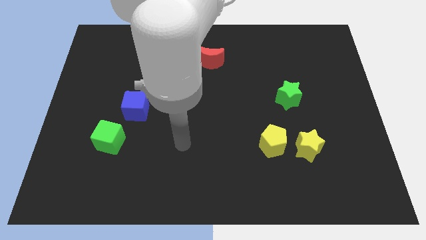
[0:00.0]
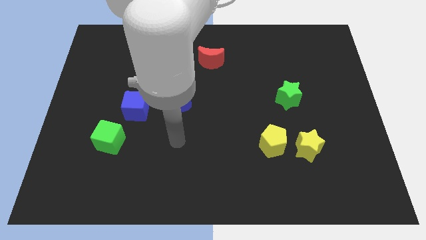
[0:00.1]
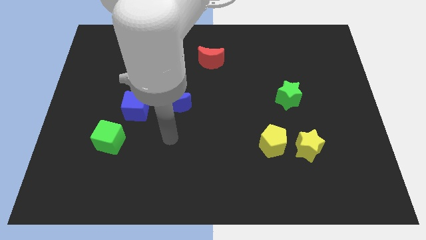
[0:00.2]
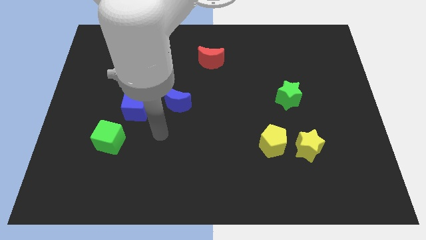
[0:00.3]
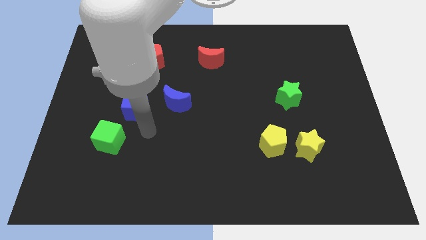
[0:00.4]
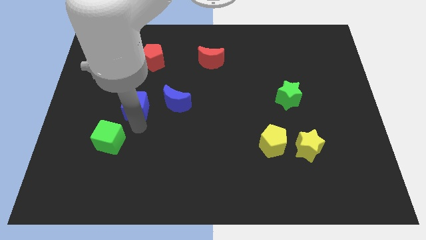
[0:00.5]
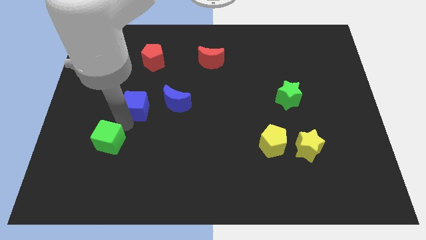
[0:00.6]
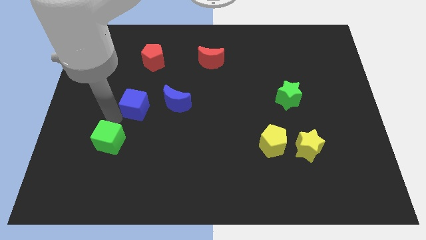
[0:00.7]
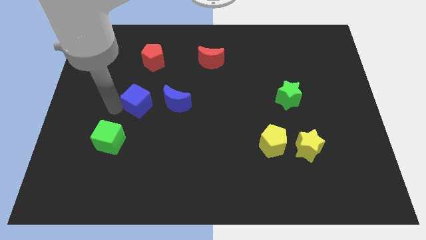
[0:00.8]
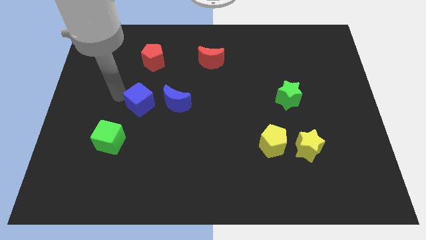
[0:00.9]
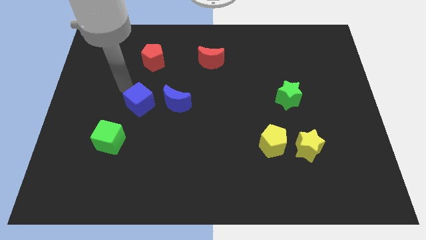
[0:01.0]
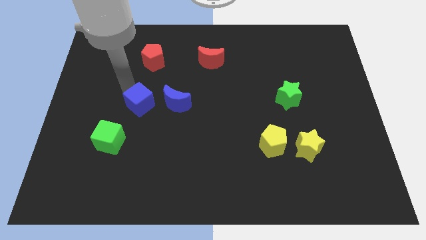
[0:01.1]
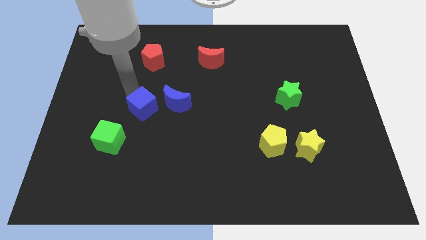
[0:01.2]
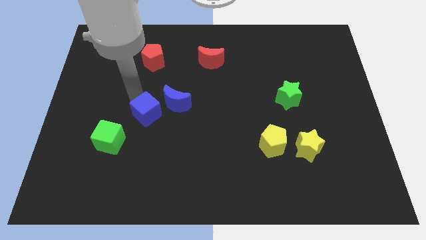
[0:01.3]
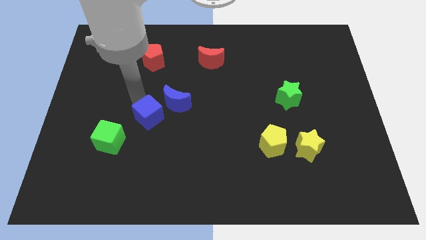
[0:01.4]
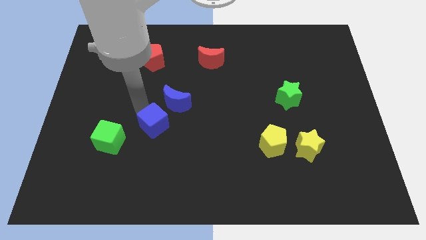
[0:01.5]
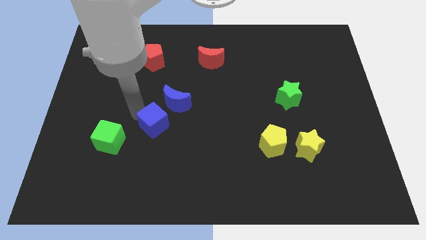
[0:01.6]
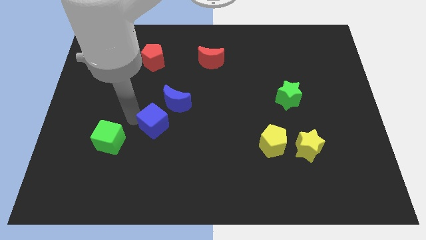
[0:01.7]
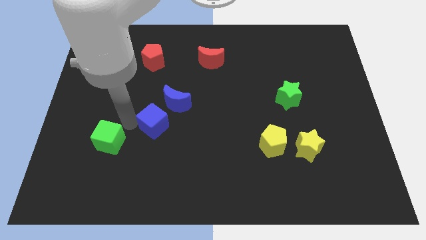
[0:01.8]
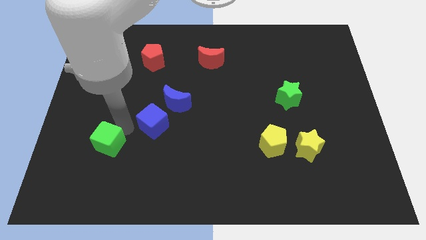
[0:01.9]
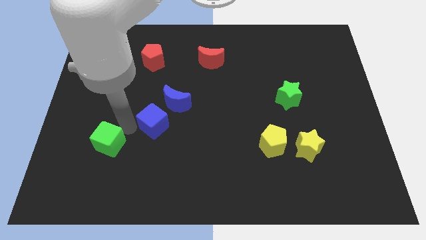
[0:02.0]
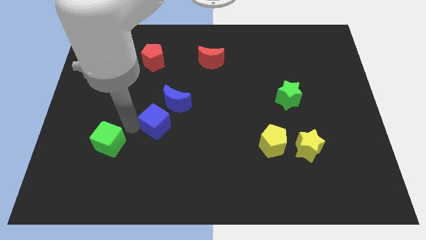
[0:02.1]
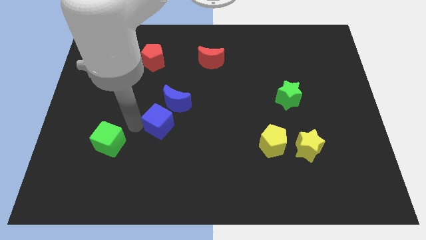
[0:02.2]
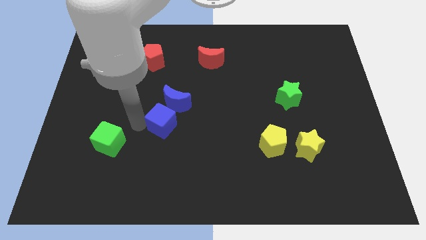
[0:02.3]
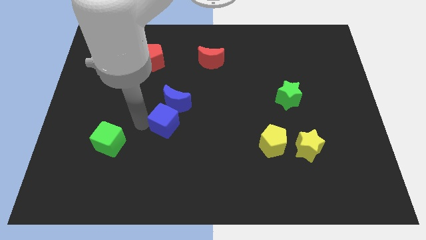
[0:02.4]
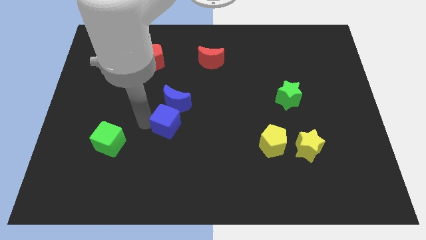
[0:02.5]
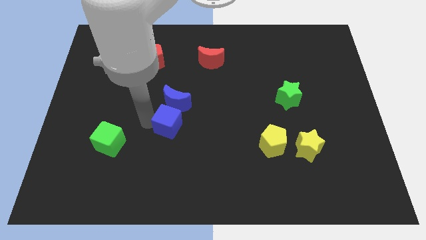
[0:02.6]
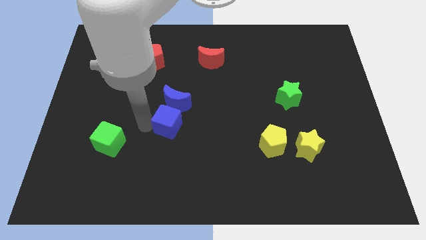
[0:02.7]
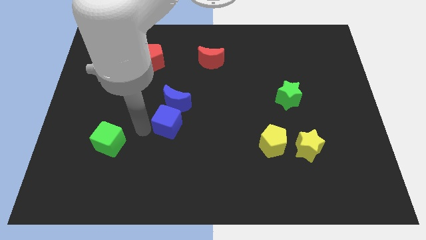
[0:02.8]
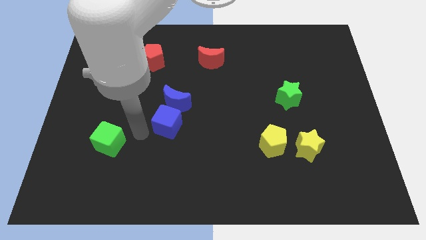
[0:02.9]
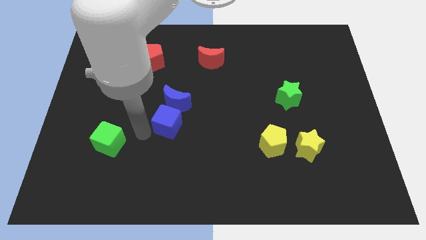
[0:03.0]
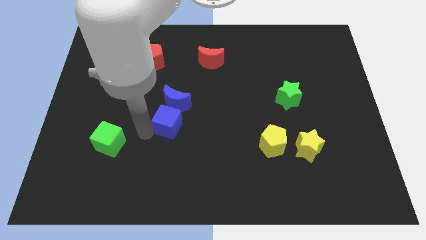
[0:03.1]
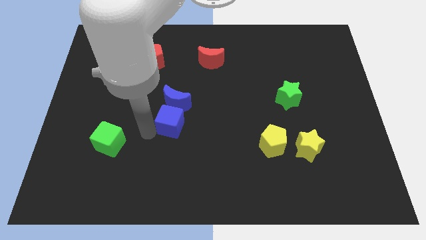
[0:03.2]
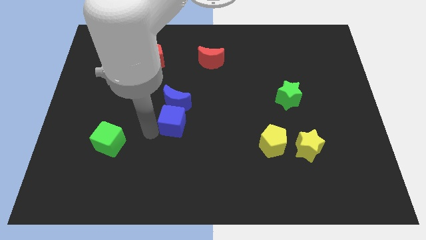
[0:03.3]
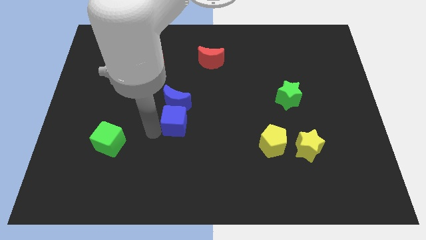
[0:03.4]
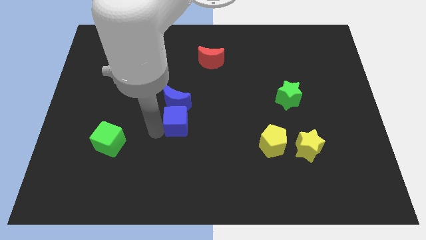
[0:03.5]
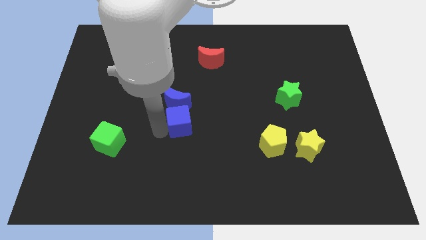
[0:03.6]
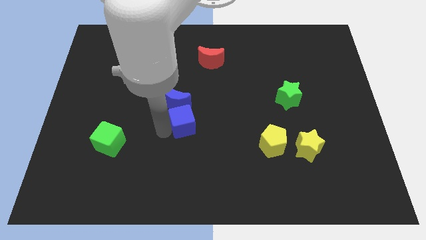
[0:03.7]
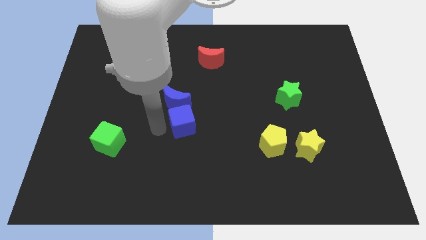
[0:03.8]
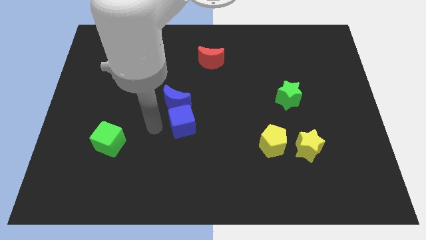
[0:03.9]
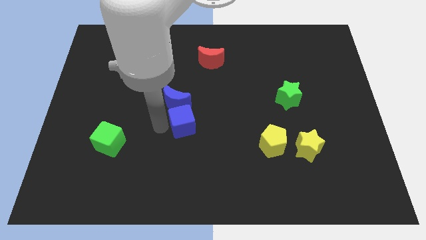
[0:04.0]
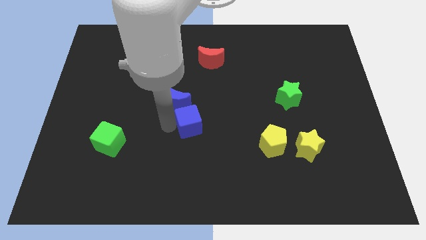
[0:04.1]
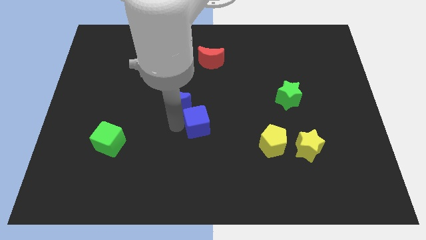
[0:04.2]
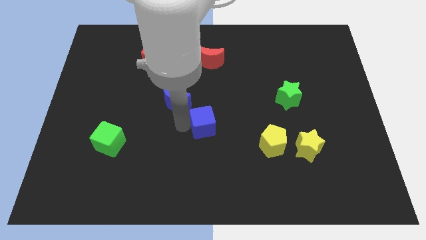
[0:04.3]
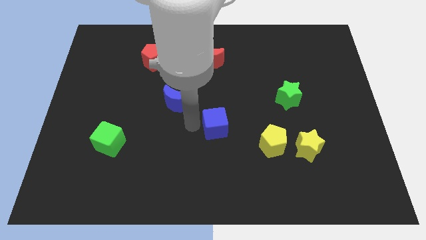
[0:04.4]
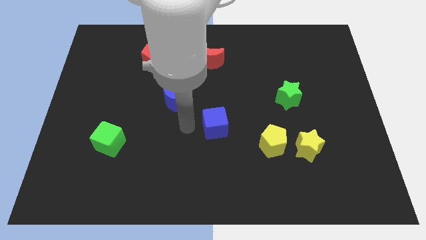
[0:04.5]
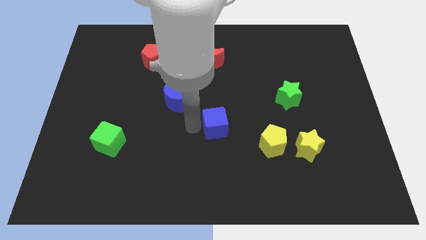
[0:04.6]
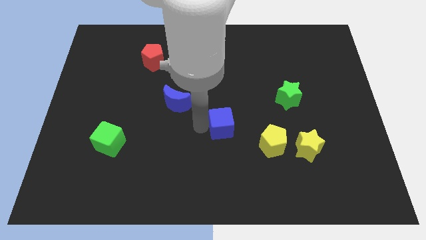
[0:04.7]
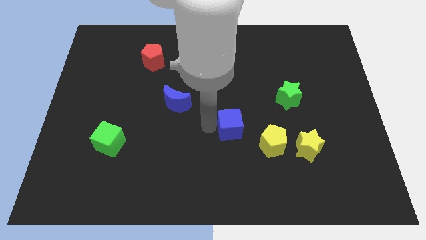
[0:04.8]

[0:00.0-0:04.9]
push the blue cube to the top left of the yellow pentagon

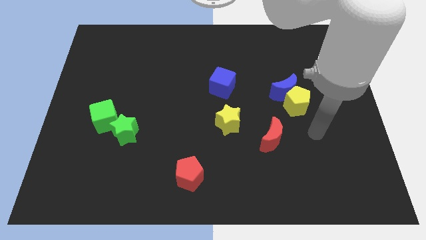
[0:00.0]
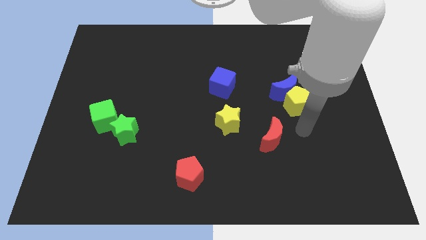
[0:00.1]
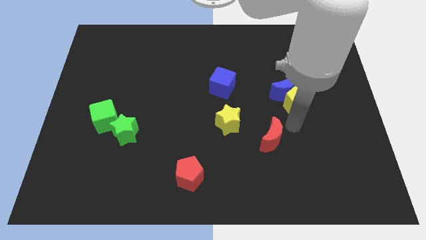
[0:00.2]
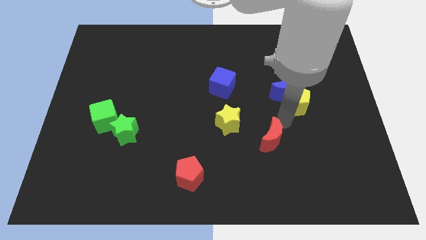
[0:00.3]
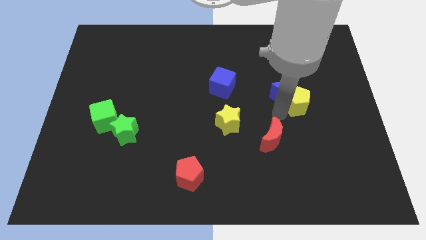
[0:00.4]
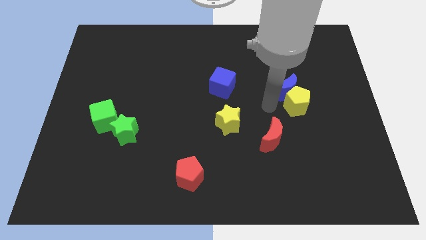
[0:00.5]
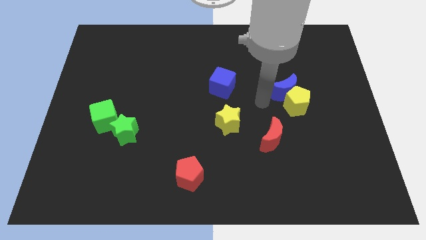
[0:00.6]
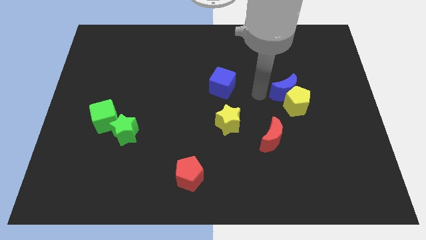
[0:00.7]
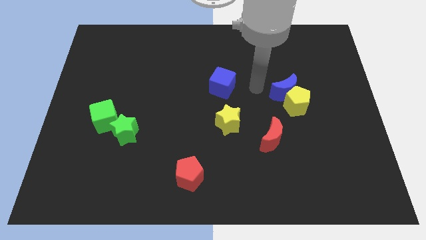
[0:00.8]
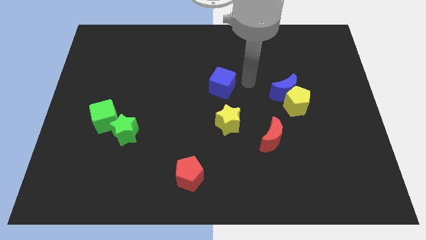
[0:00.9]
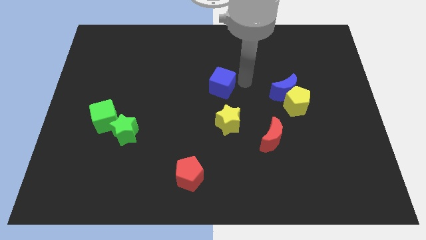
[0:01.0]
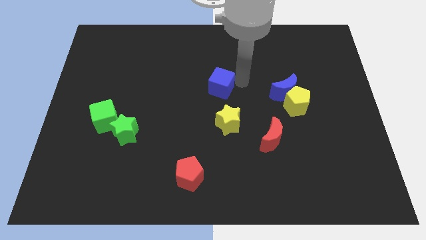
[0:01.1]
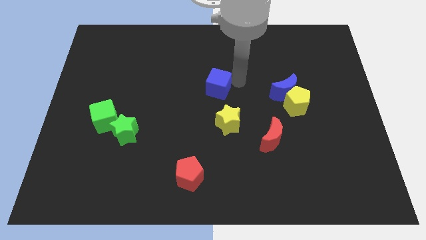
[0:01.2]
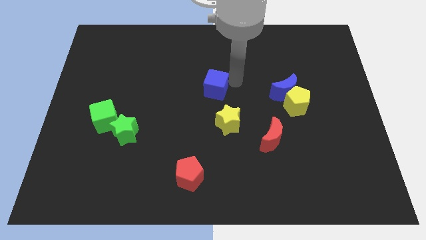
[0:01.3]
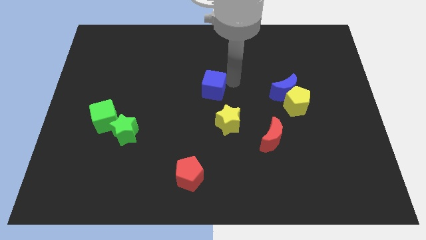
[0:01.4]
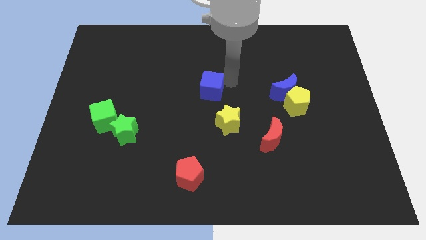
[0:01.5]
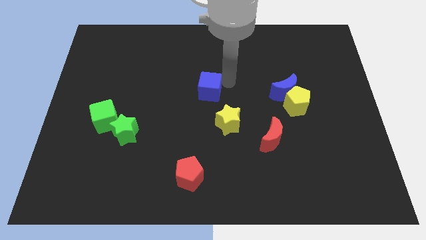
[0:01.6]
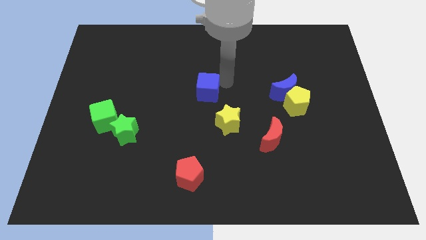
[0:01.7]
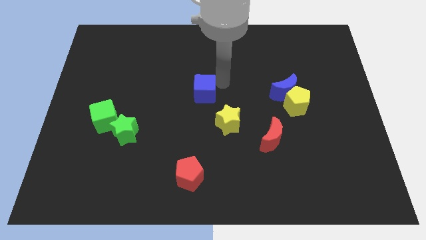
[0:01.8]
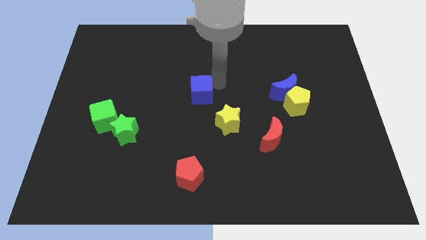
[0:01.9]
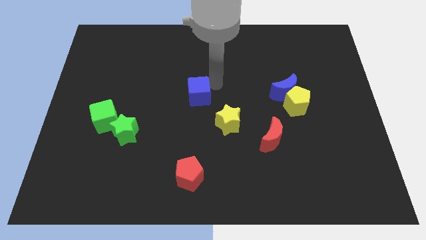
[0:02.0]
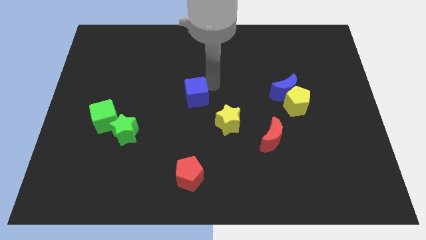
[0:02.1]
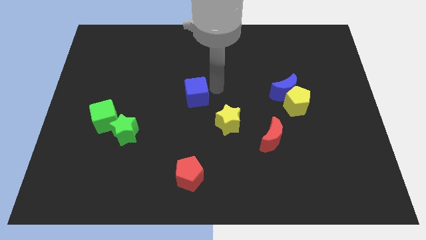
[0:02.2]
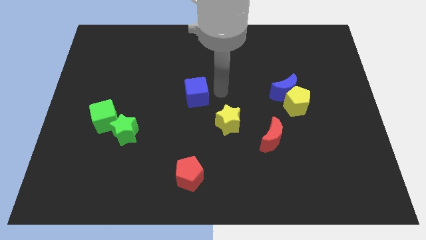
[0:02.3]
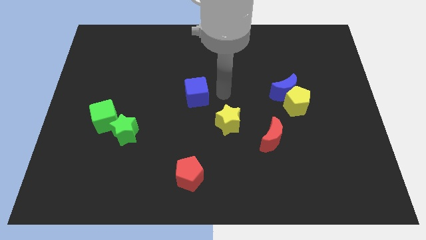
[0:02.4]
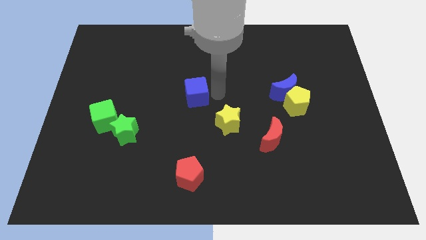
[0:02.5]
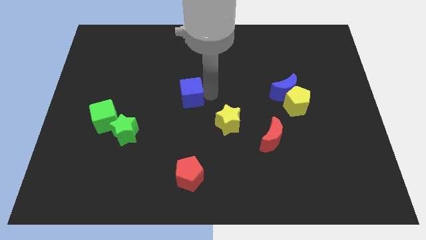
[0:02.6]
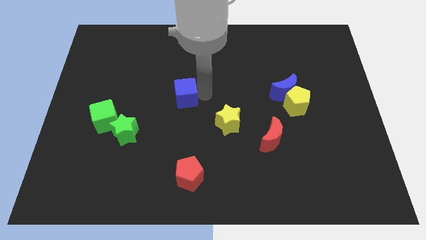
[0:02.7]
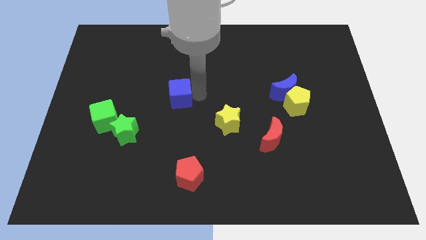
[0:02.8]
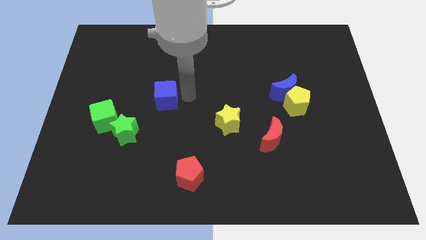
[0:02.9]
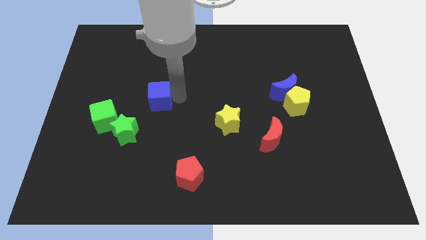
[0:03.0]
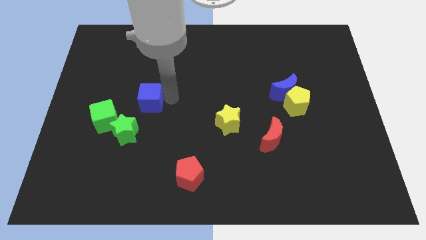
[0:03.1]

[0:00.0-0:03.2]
push the blue cube to the top of the green star
